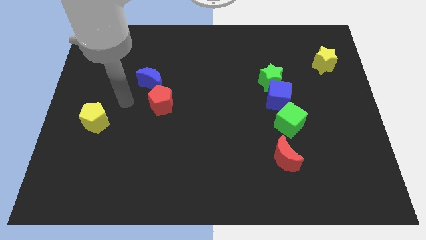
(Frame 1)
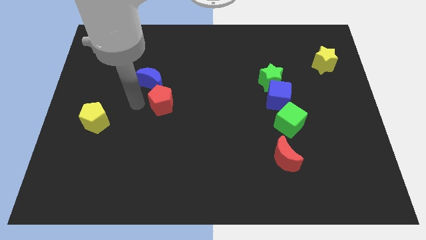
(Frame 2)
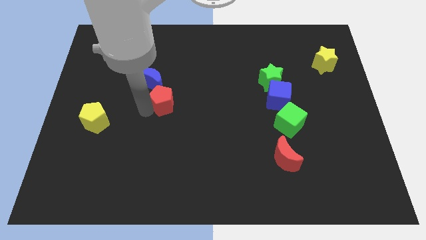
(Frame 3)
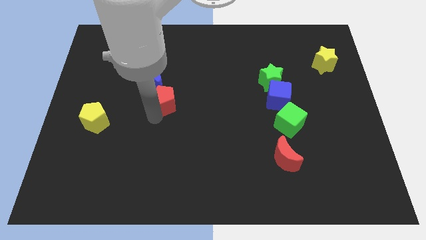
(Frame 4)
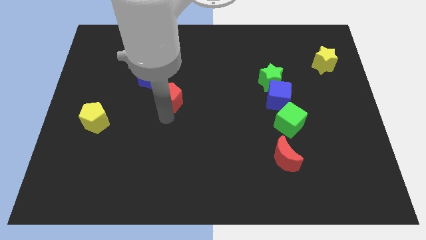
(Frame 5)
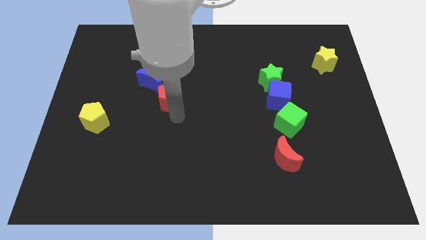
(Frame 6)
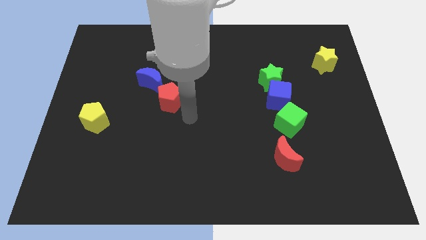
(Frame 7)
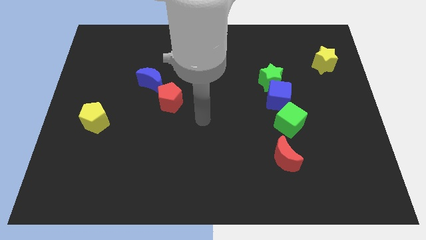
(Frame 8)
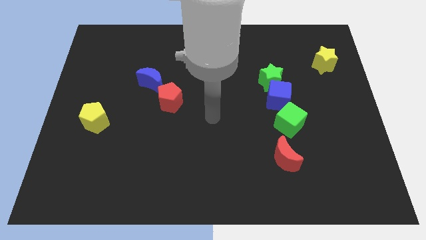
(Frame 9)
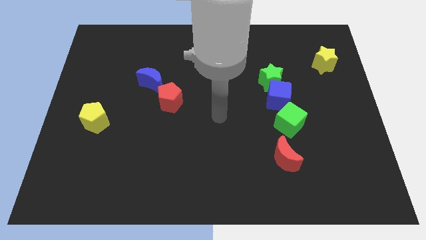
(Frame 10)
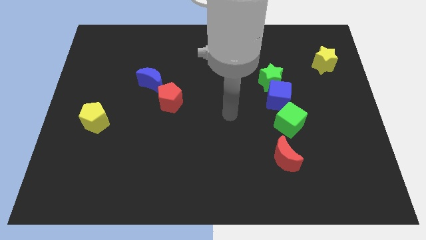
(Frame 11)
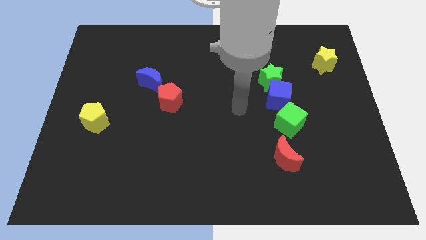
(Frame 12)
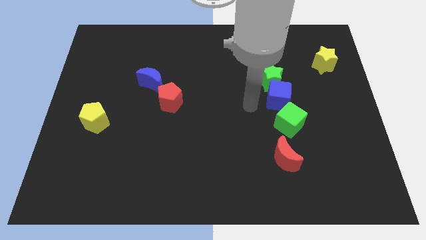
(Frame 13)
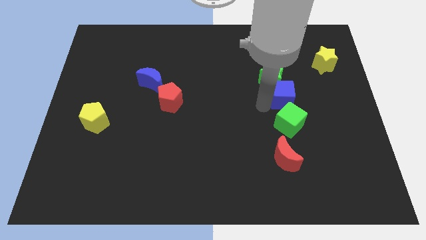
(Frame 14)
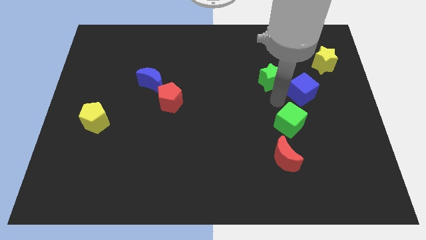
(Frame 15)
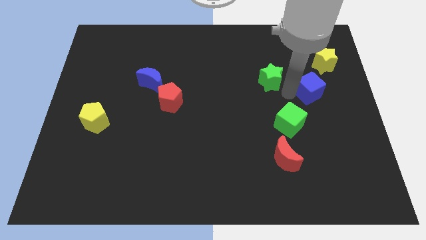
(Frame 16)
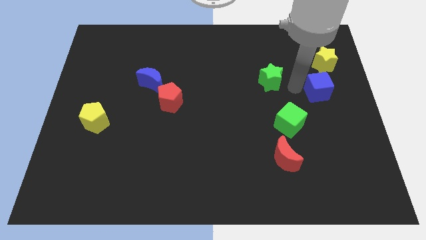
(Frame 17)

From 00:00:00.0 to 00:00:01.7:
move the green star away from the blue cube

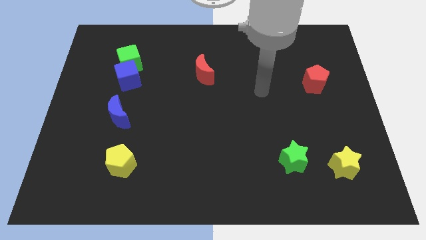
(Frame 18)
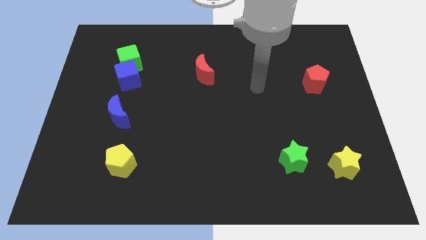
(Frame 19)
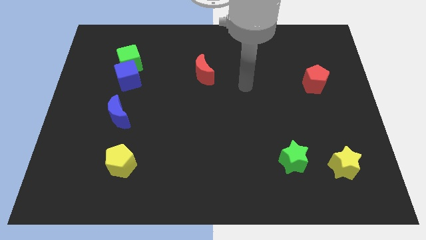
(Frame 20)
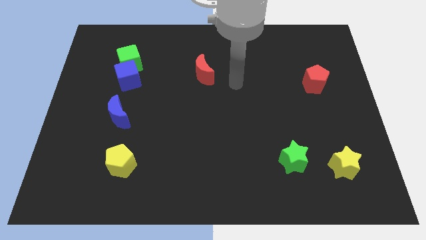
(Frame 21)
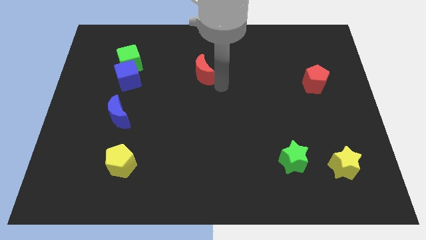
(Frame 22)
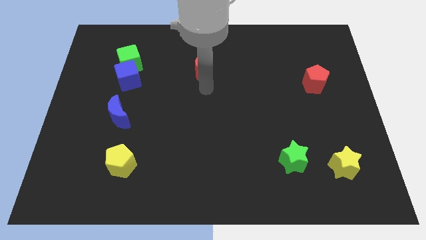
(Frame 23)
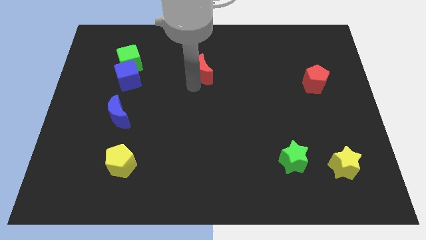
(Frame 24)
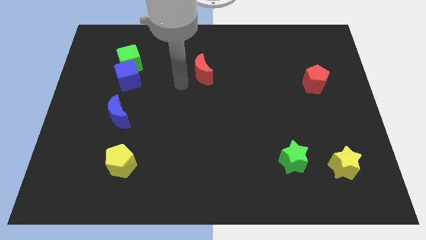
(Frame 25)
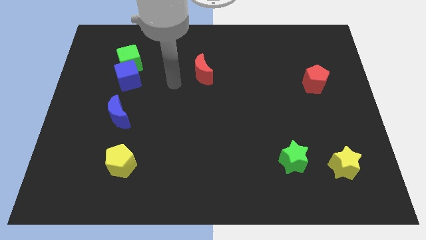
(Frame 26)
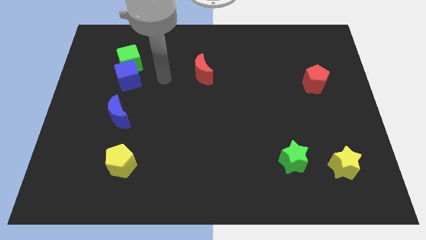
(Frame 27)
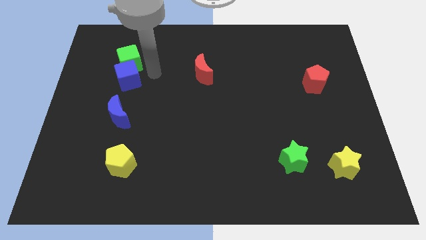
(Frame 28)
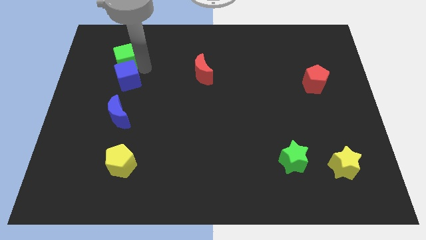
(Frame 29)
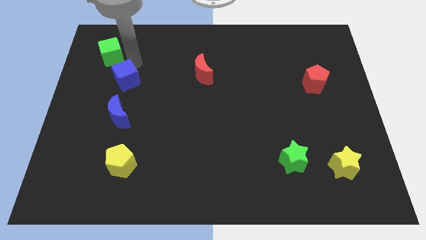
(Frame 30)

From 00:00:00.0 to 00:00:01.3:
pull the blue cube apart from the green cube

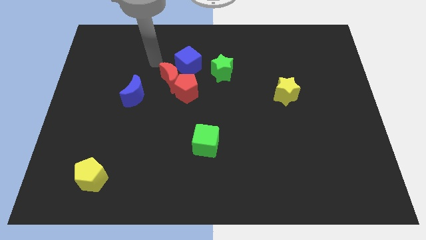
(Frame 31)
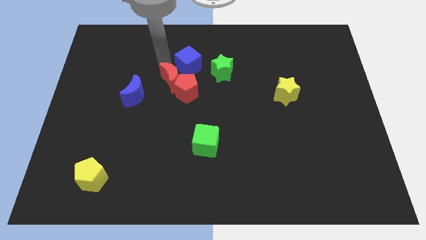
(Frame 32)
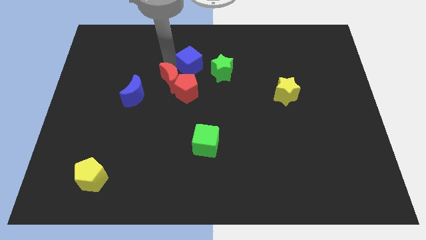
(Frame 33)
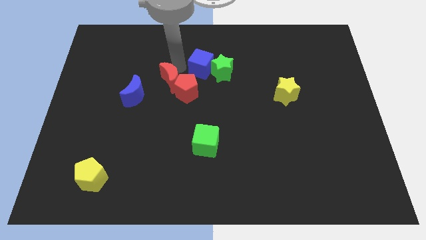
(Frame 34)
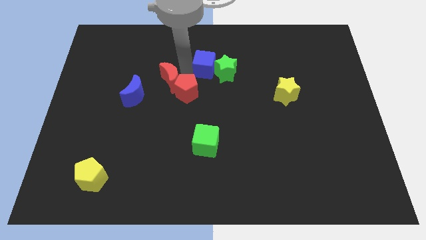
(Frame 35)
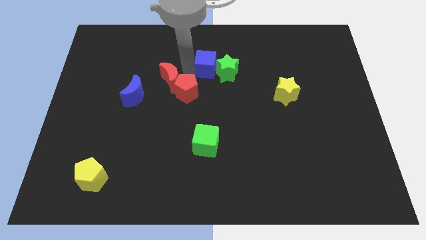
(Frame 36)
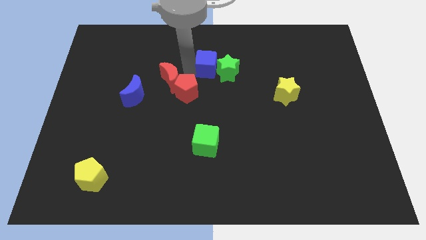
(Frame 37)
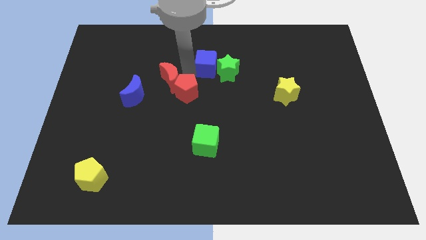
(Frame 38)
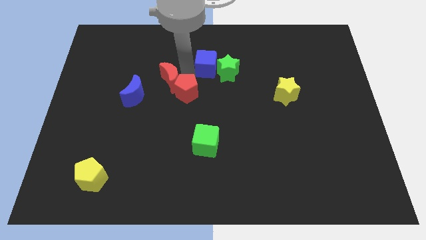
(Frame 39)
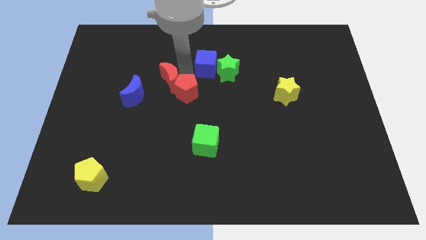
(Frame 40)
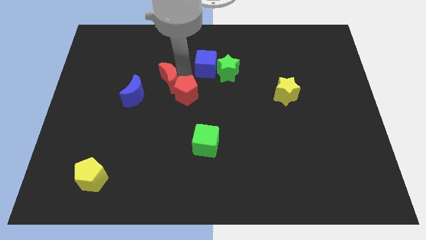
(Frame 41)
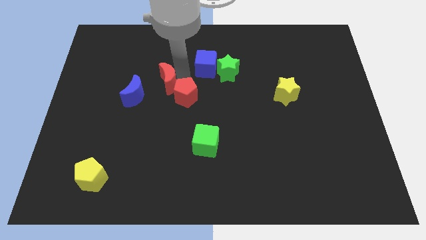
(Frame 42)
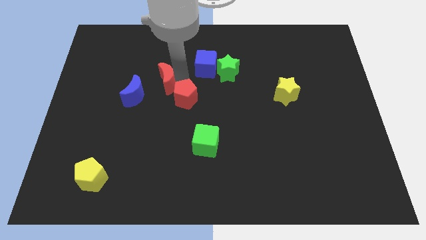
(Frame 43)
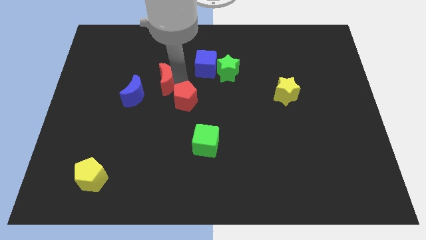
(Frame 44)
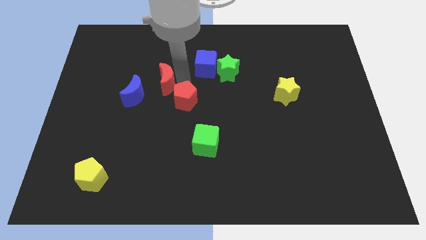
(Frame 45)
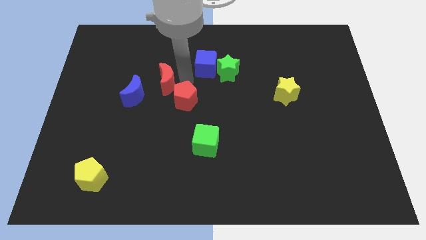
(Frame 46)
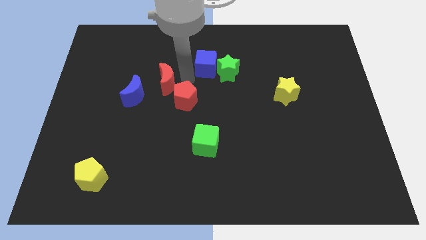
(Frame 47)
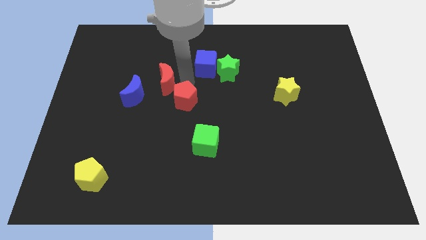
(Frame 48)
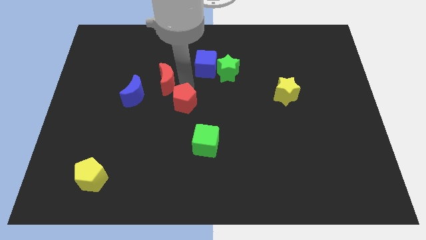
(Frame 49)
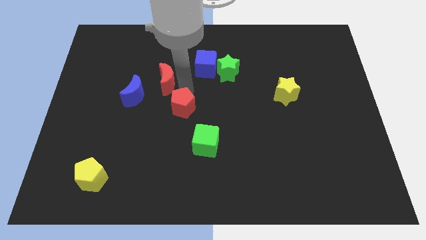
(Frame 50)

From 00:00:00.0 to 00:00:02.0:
separate the red pentagon from the red moon and blue cube

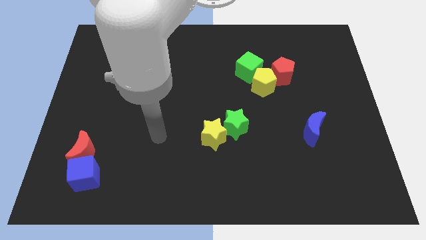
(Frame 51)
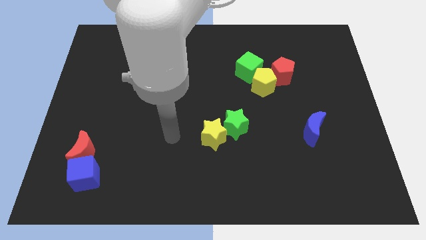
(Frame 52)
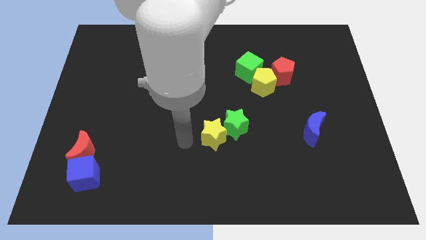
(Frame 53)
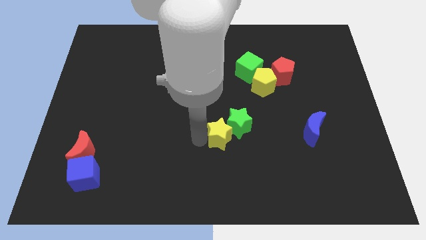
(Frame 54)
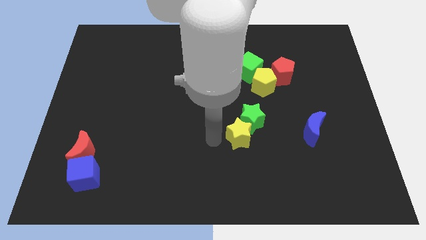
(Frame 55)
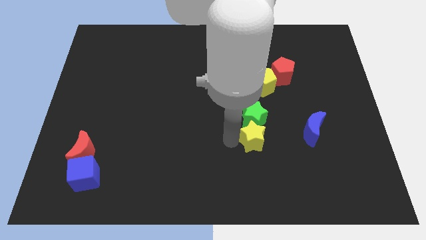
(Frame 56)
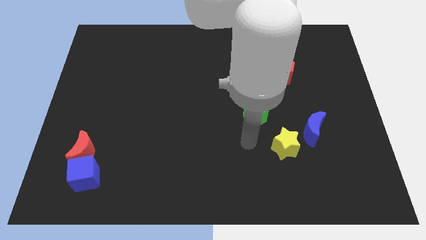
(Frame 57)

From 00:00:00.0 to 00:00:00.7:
move the green star away from the yellow star

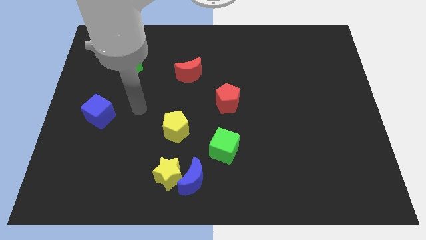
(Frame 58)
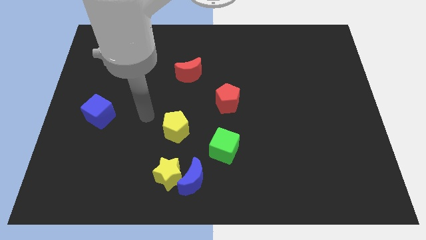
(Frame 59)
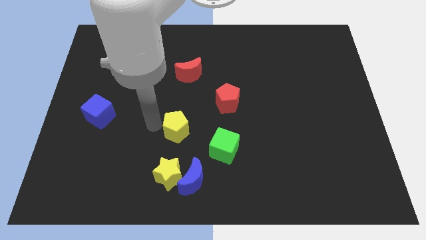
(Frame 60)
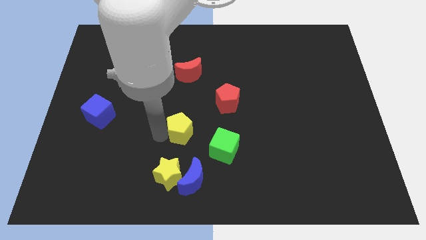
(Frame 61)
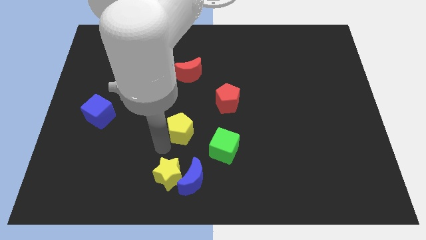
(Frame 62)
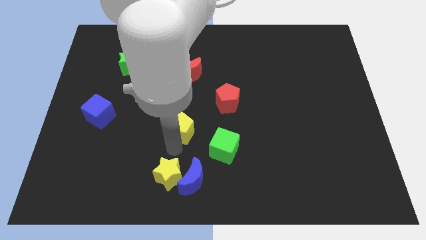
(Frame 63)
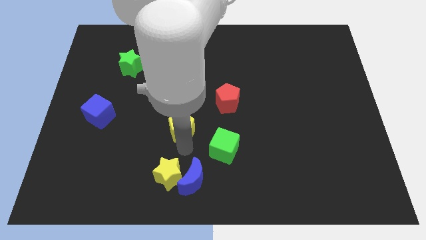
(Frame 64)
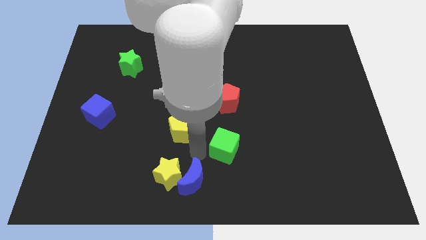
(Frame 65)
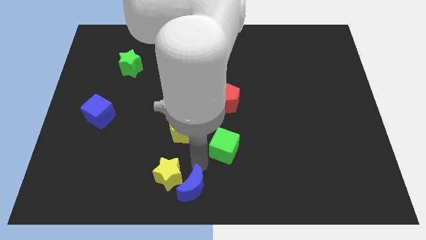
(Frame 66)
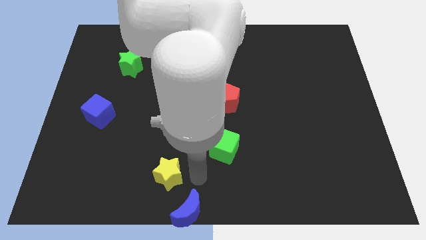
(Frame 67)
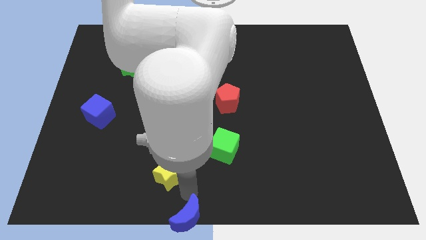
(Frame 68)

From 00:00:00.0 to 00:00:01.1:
separate the yellow star from the blue moon

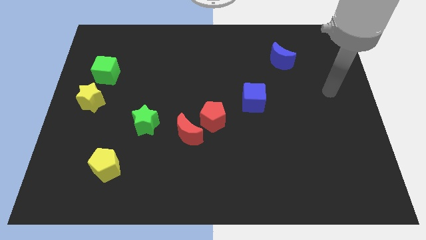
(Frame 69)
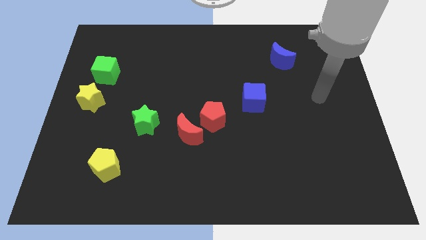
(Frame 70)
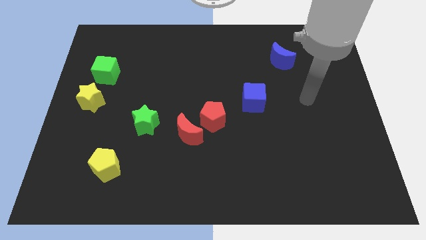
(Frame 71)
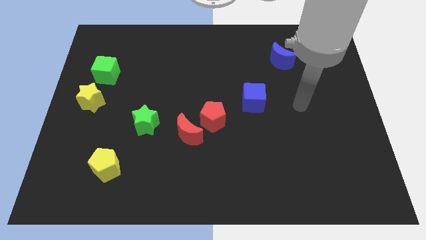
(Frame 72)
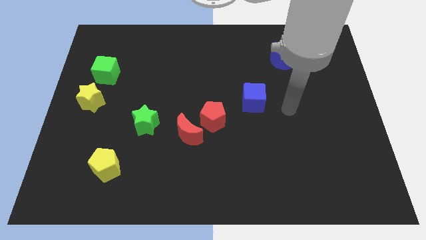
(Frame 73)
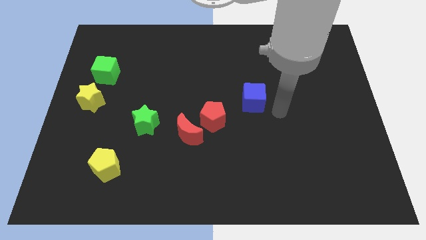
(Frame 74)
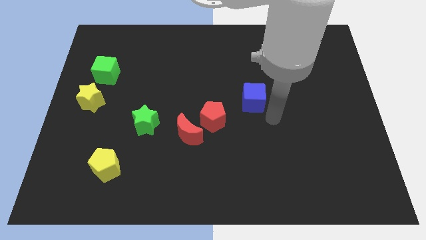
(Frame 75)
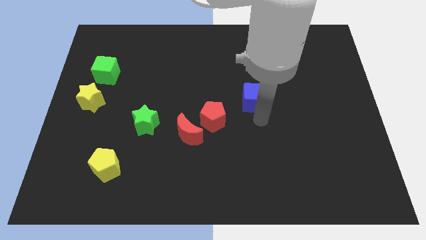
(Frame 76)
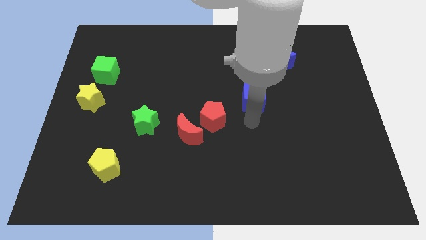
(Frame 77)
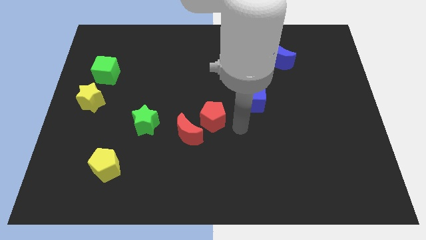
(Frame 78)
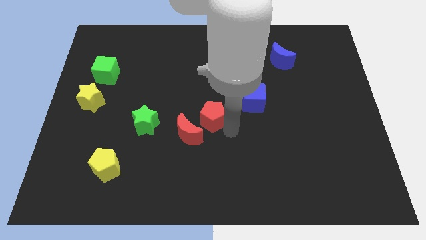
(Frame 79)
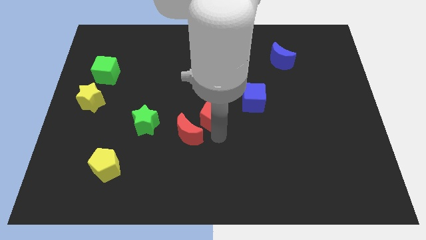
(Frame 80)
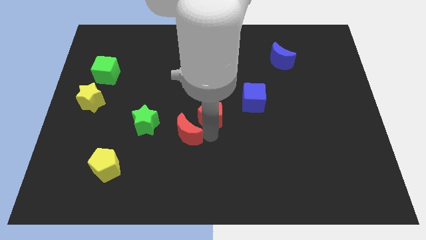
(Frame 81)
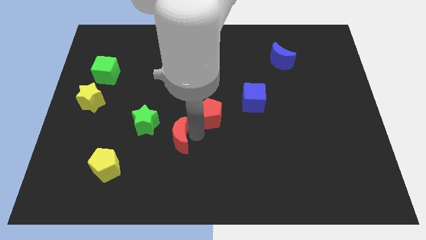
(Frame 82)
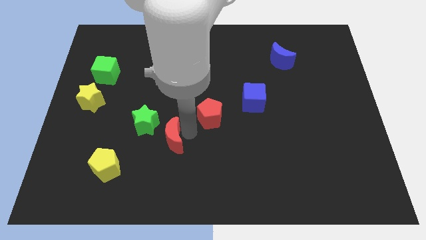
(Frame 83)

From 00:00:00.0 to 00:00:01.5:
move the red pentagon away from the red moon

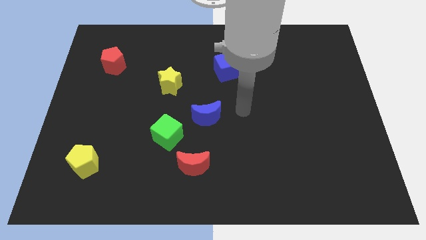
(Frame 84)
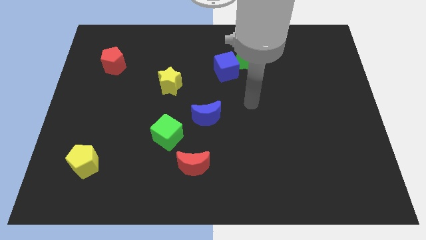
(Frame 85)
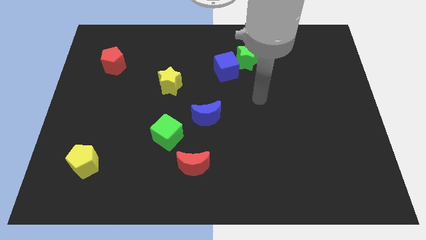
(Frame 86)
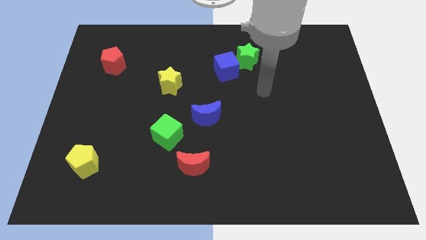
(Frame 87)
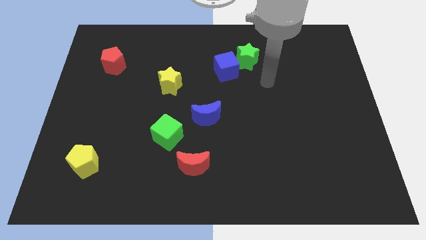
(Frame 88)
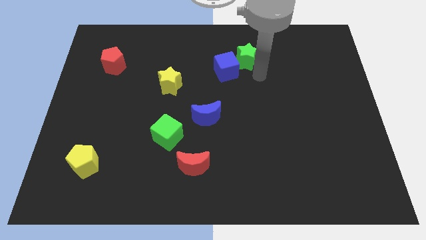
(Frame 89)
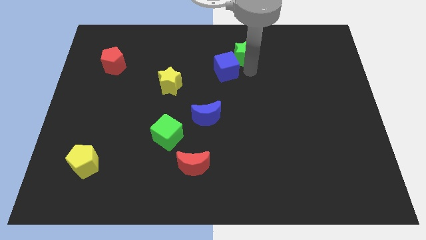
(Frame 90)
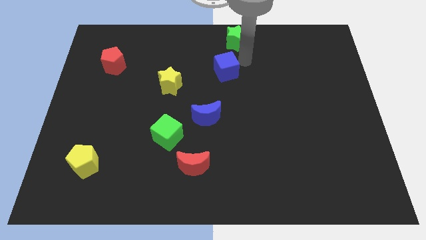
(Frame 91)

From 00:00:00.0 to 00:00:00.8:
separate the blue cube from the green star

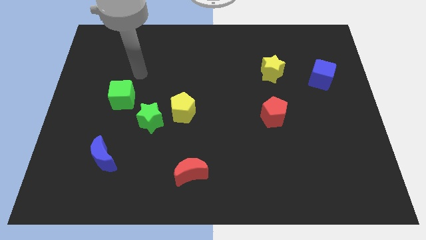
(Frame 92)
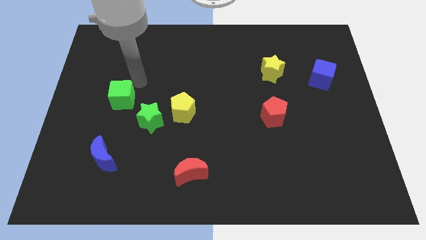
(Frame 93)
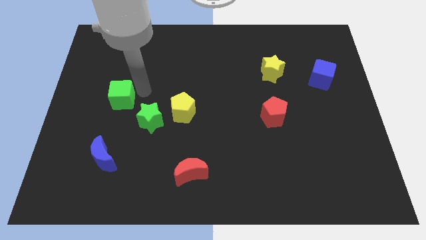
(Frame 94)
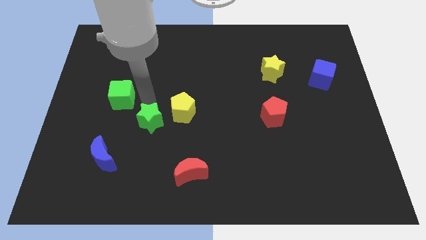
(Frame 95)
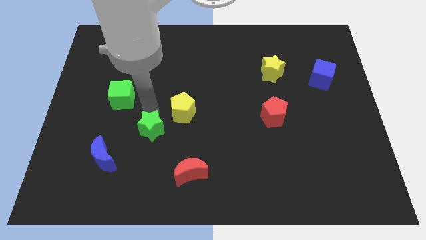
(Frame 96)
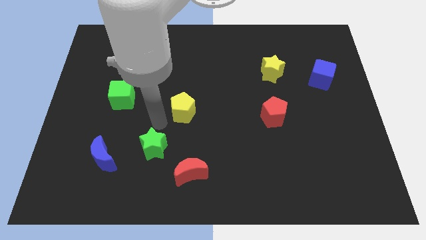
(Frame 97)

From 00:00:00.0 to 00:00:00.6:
move the yellow pentagon away from the green star
